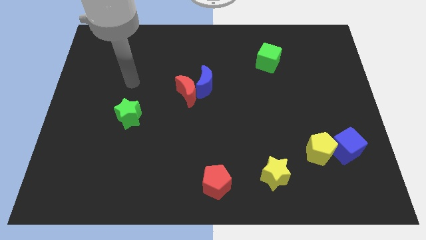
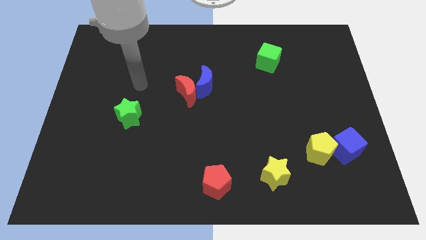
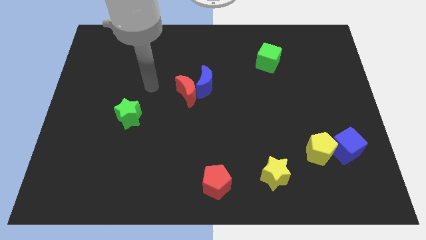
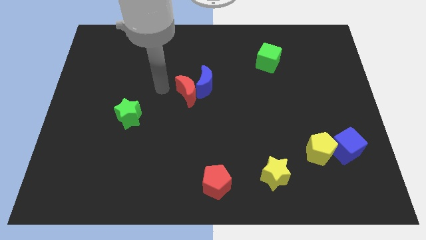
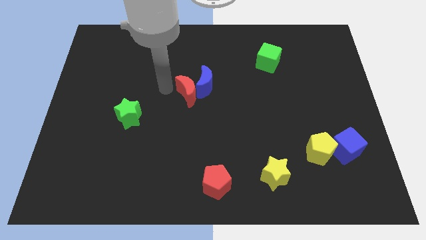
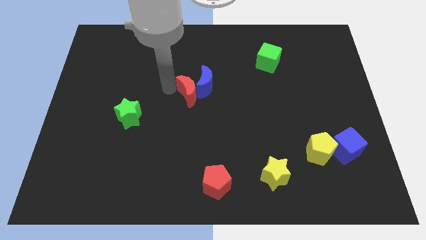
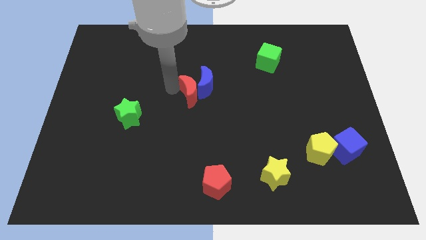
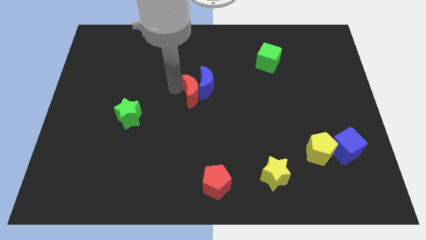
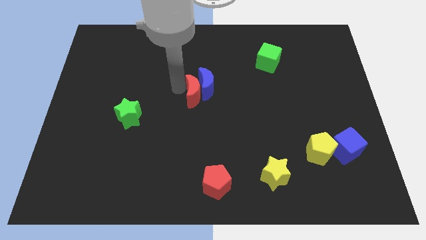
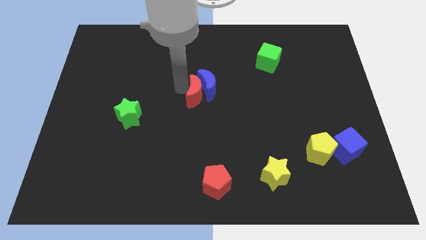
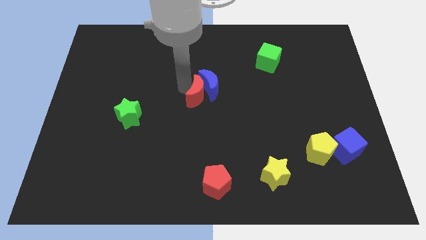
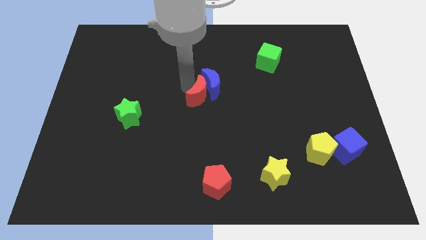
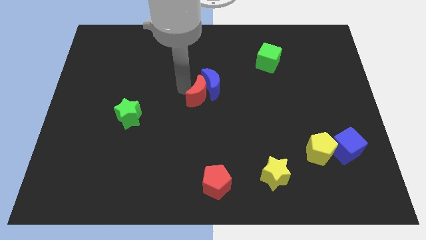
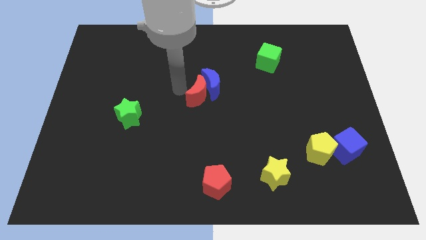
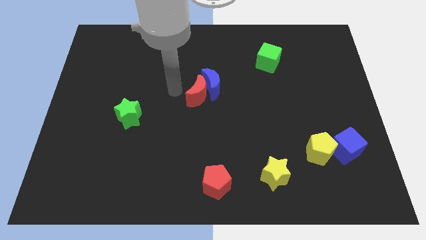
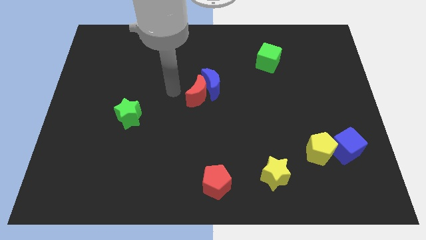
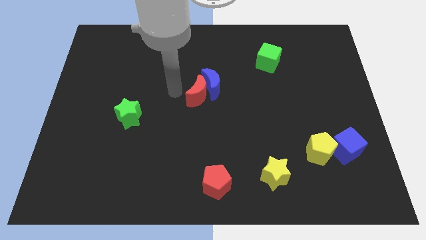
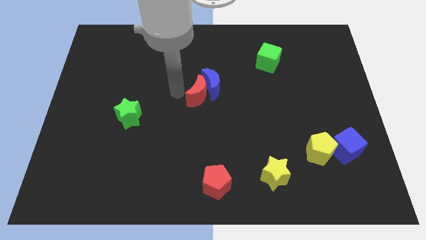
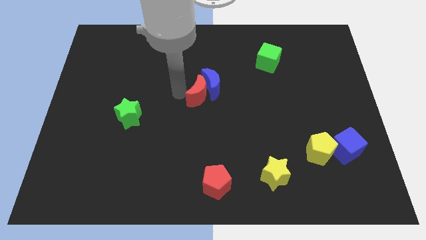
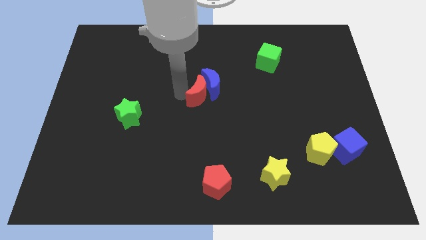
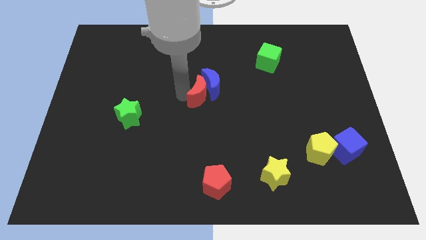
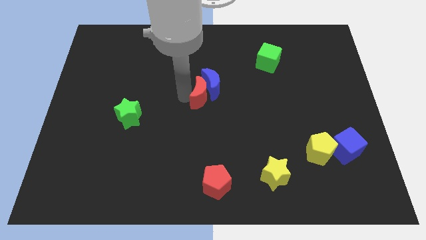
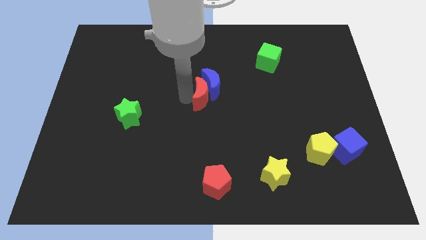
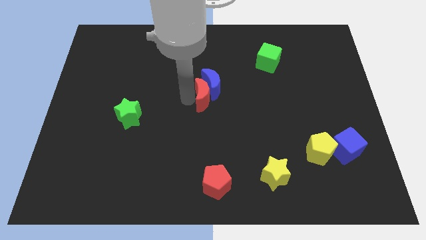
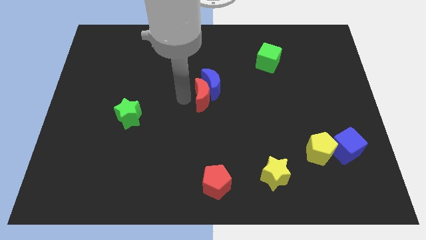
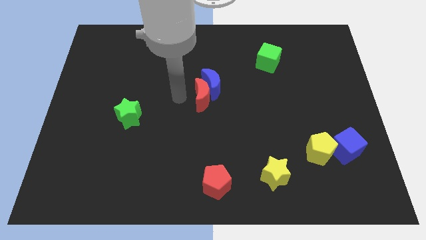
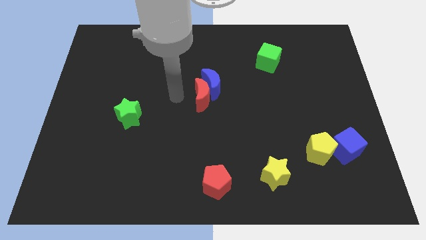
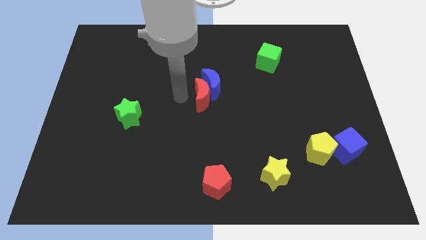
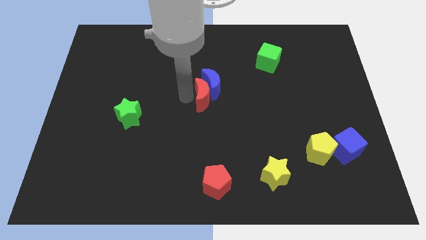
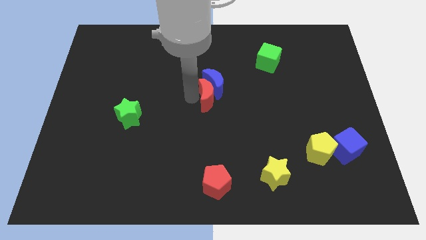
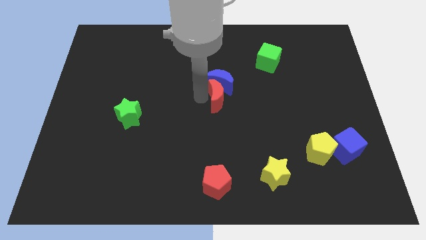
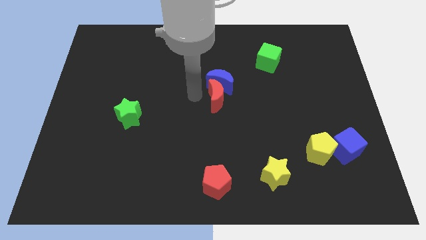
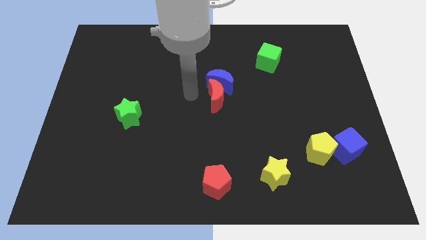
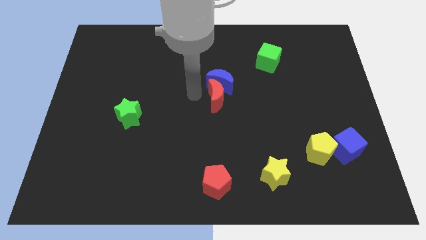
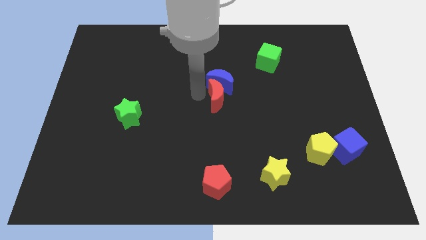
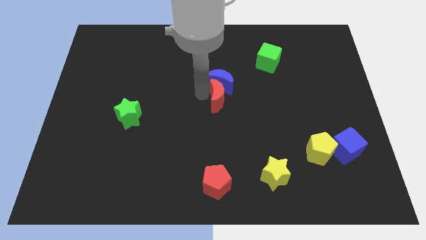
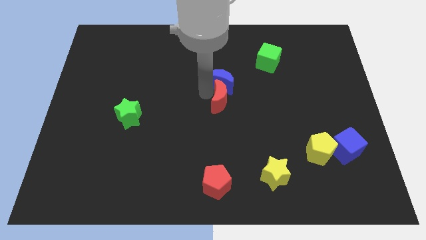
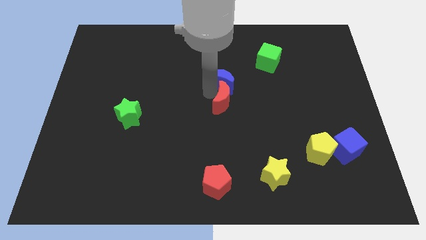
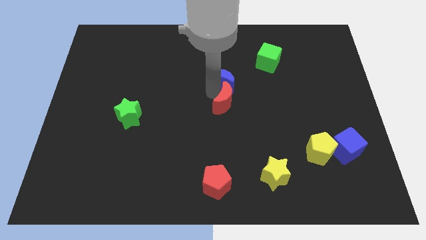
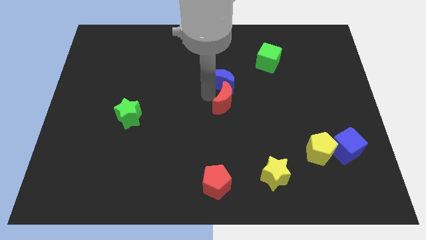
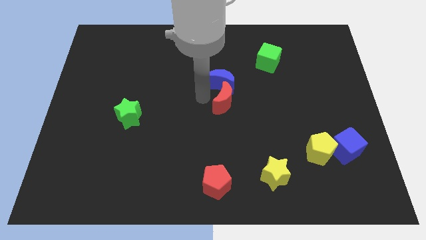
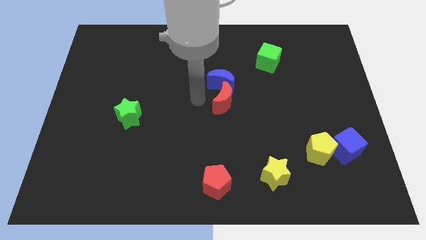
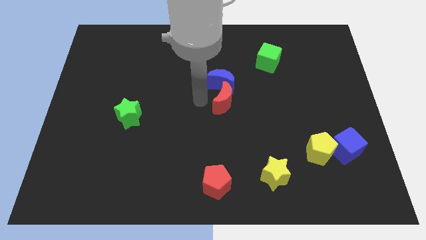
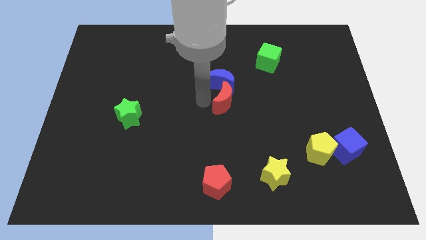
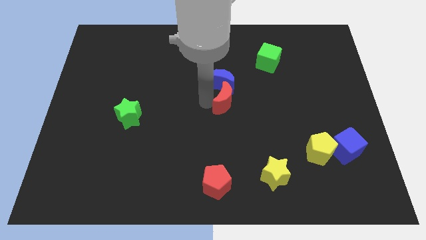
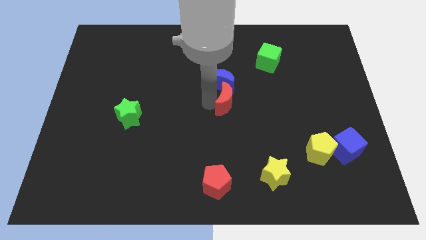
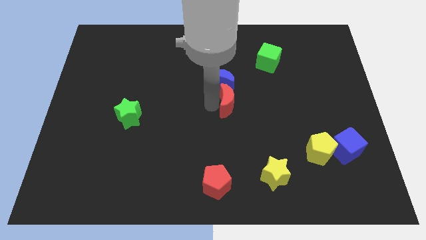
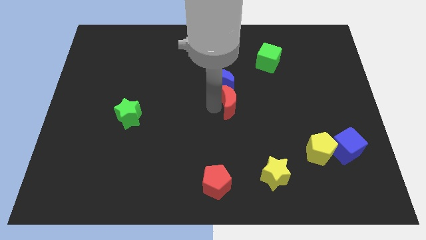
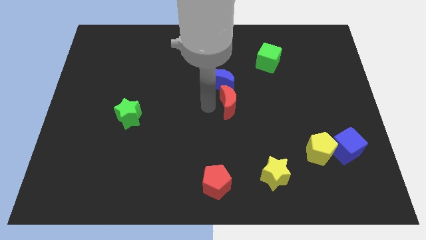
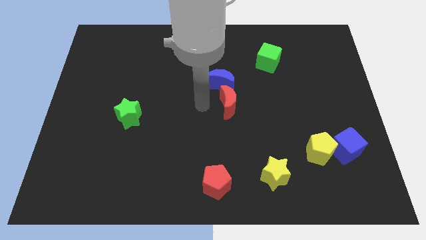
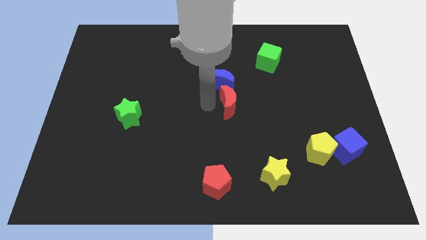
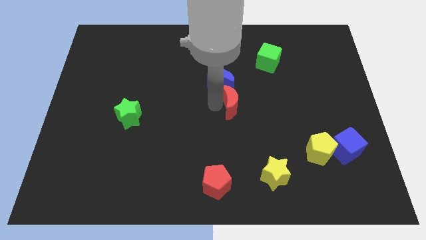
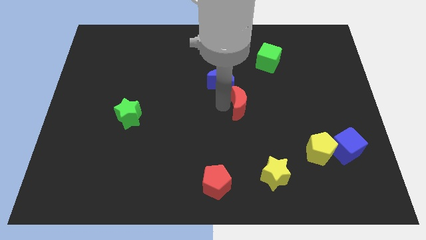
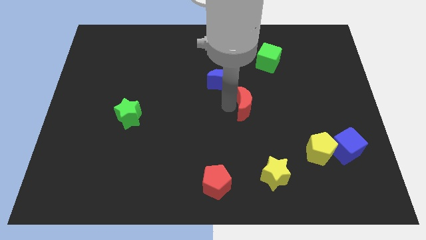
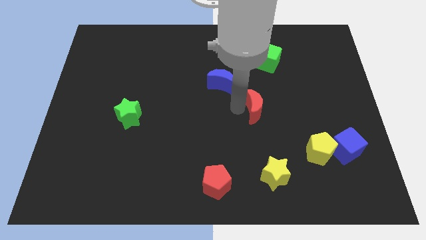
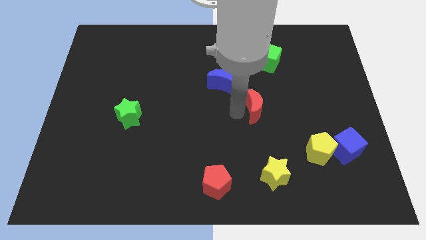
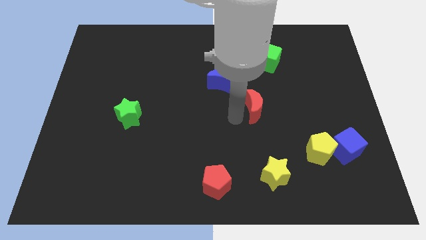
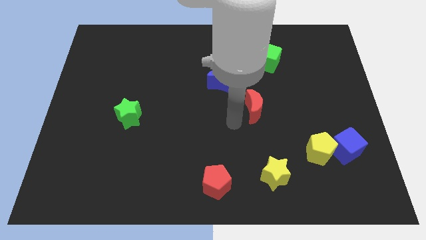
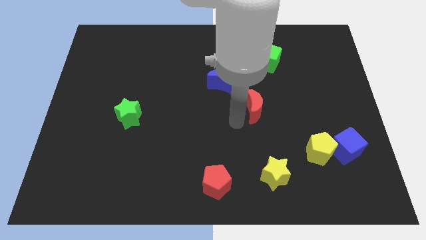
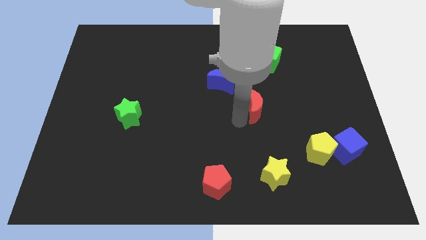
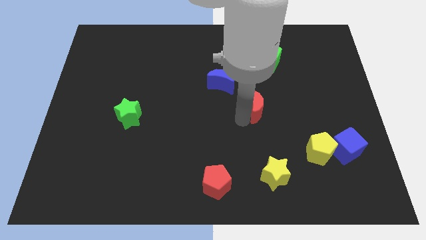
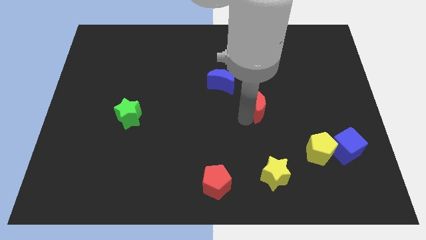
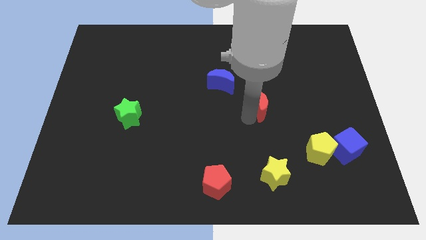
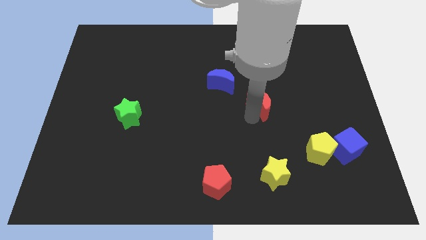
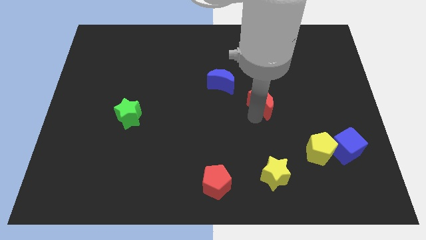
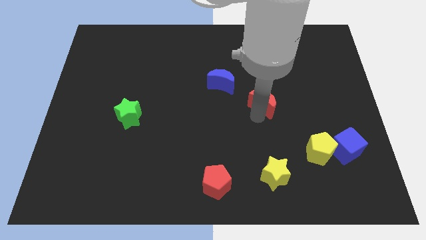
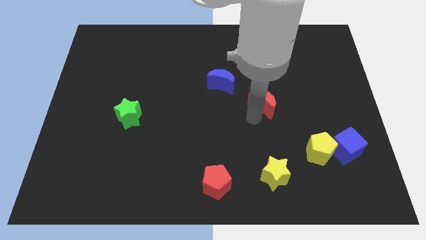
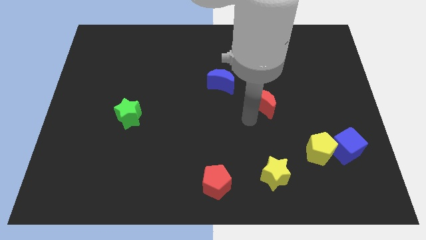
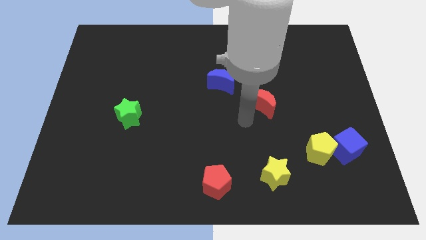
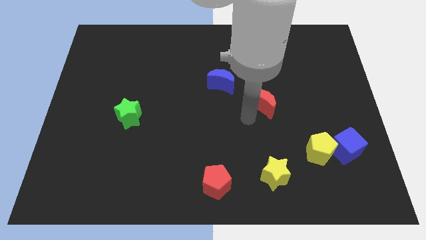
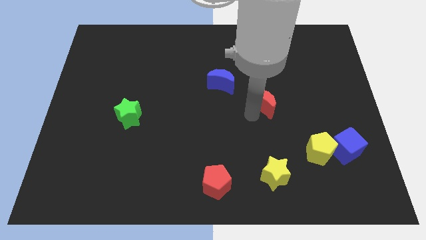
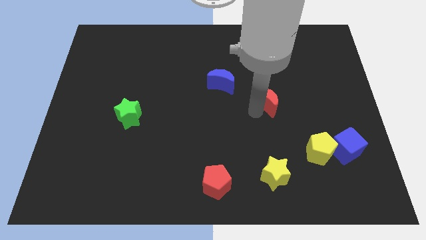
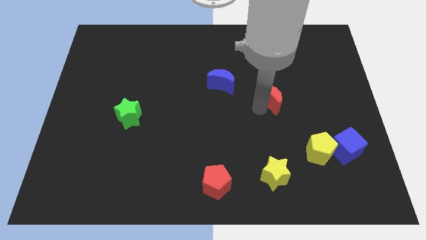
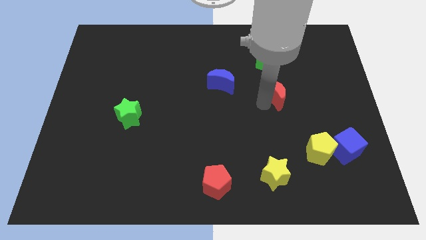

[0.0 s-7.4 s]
push the red moon to the right

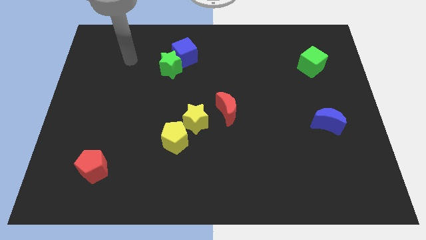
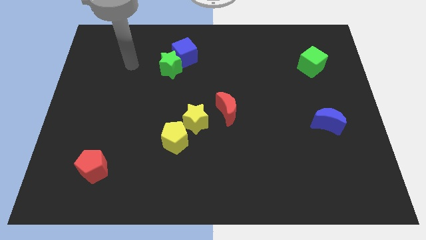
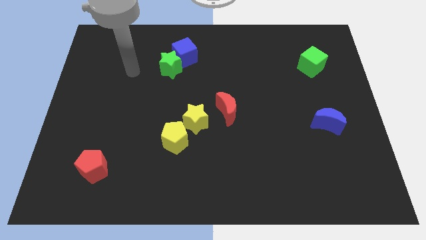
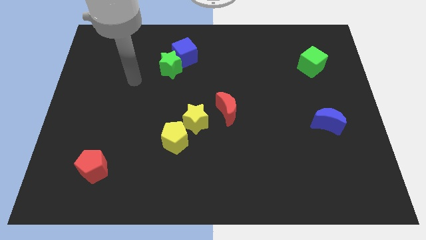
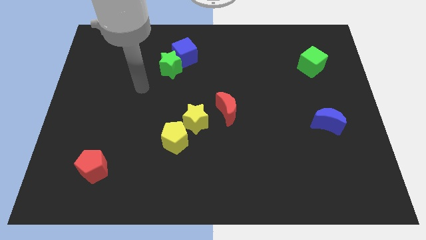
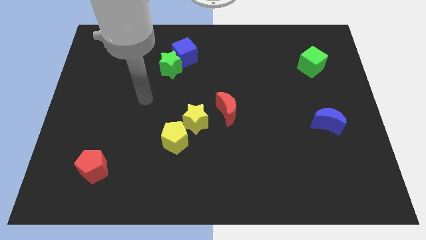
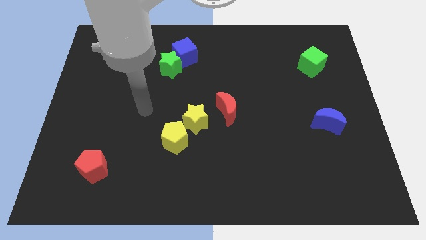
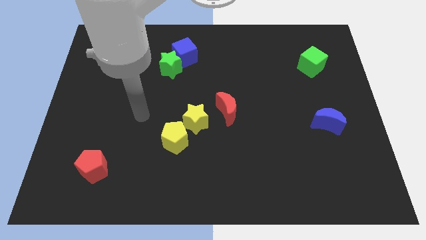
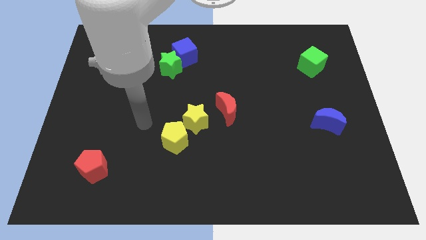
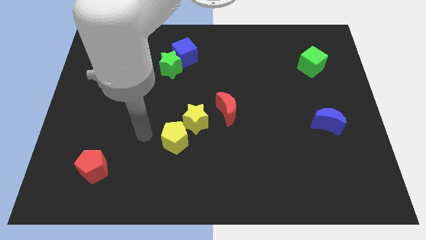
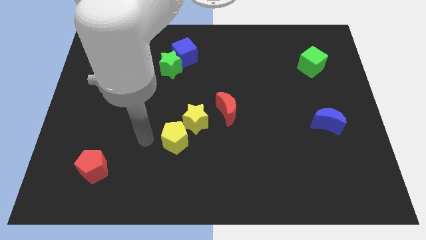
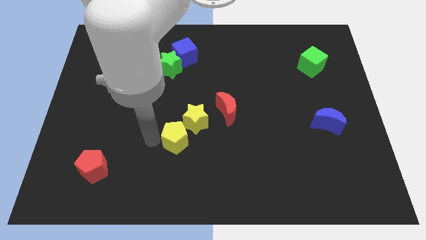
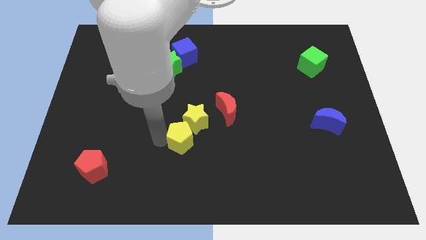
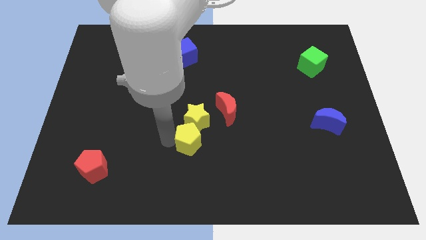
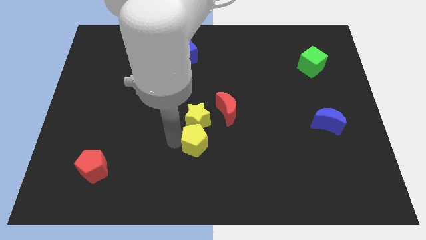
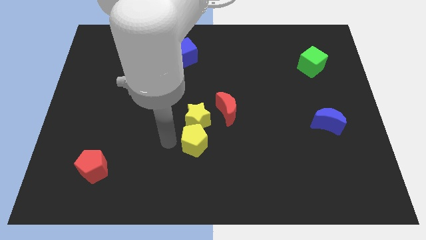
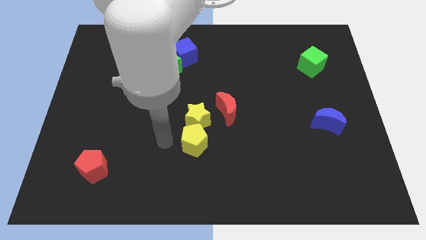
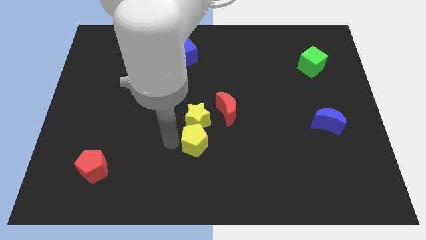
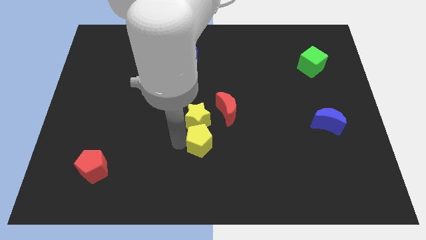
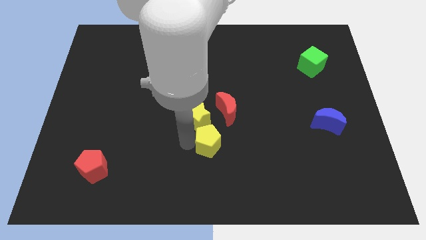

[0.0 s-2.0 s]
move the yellow pentagon slightly right
